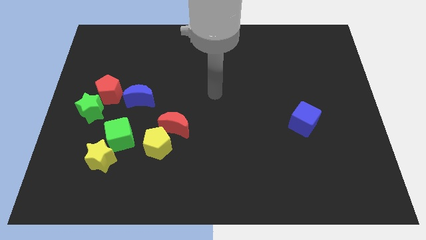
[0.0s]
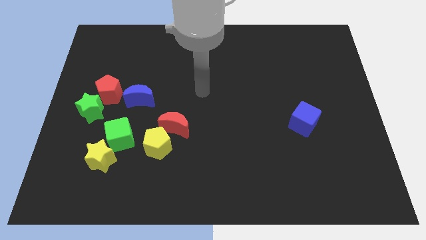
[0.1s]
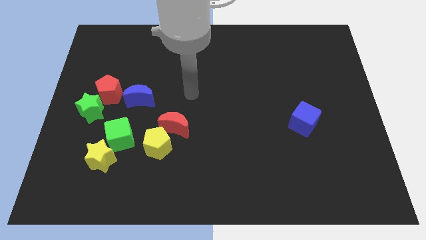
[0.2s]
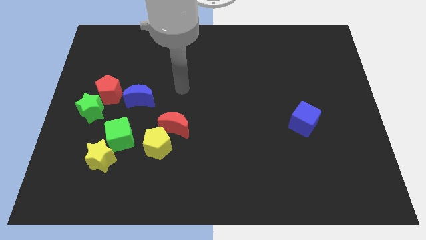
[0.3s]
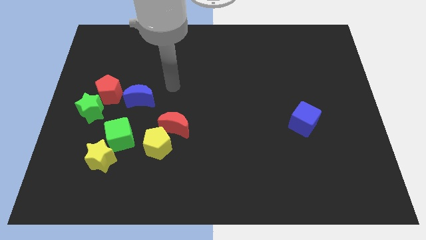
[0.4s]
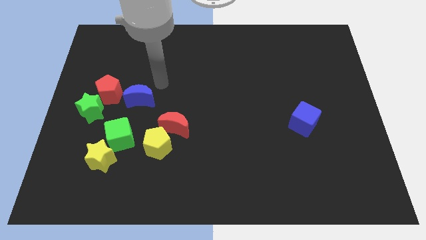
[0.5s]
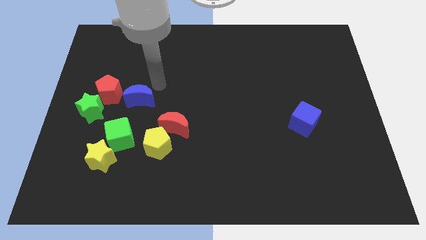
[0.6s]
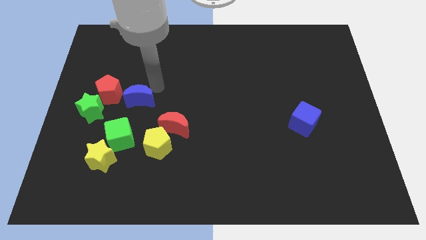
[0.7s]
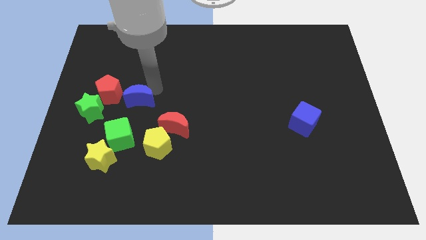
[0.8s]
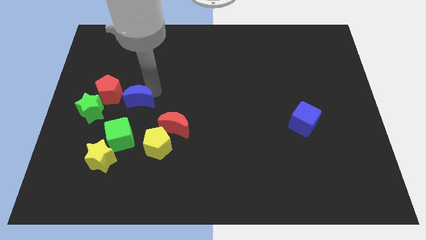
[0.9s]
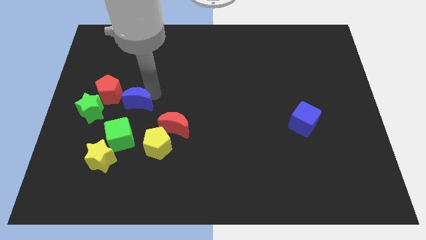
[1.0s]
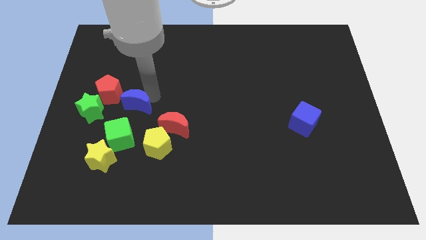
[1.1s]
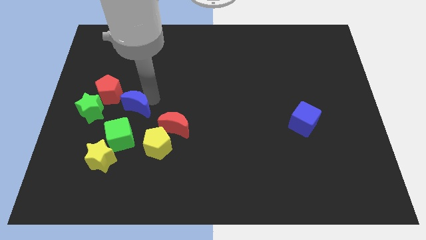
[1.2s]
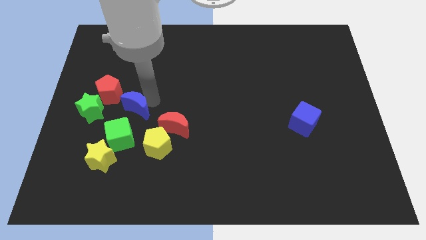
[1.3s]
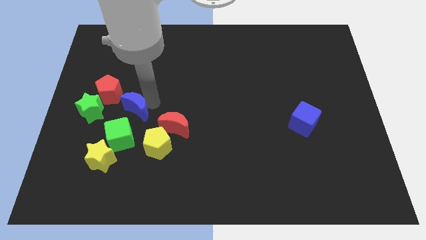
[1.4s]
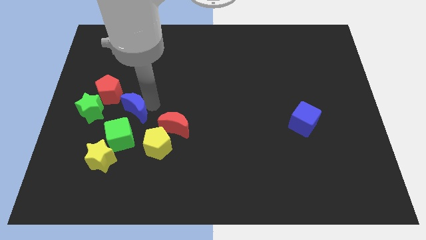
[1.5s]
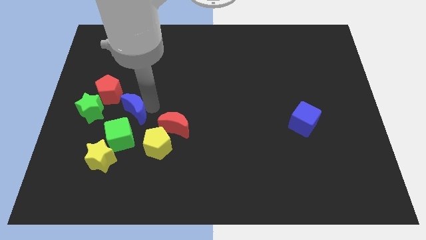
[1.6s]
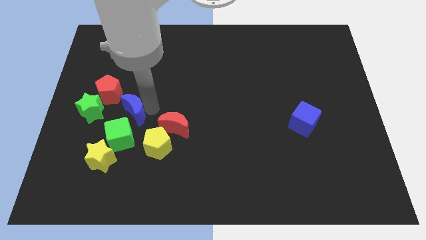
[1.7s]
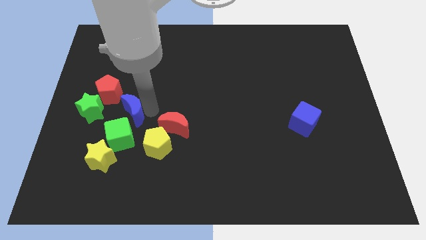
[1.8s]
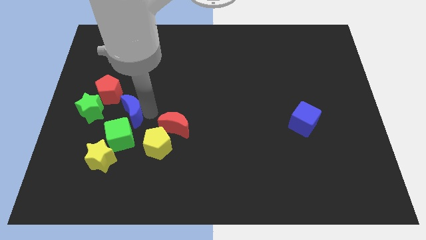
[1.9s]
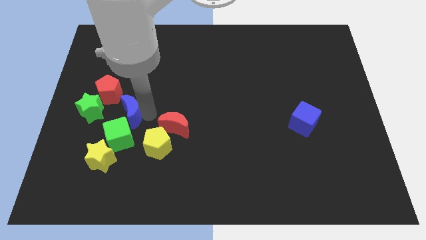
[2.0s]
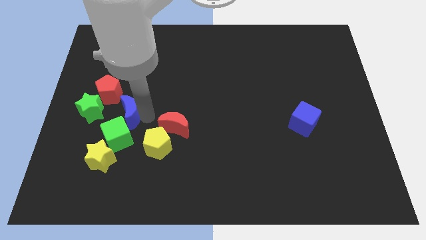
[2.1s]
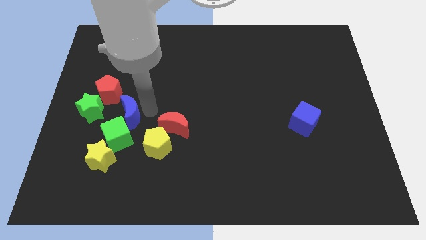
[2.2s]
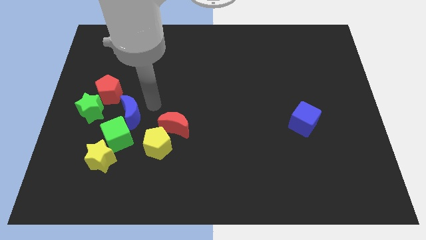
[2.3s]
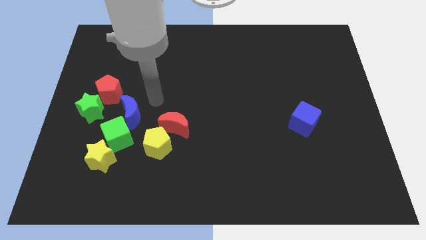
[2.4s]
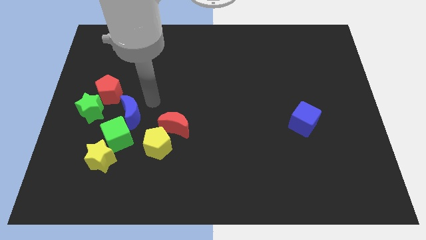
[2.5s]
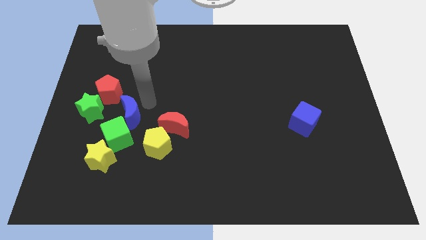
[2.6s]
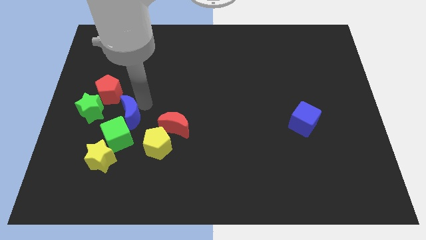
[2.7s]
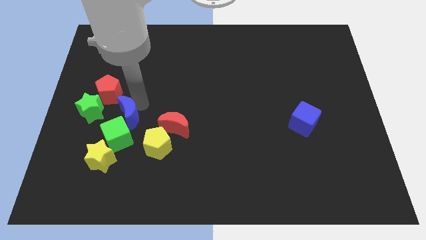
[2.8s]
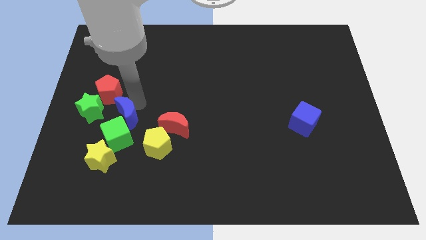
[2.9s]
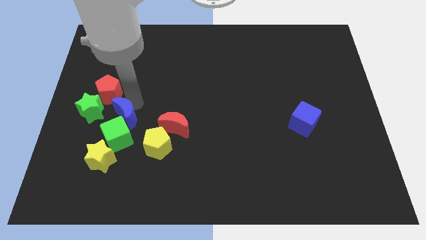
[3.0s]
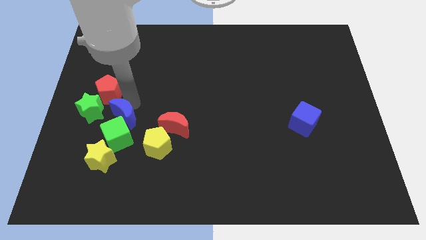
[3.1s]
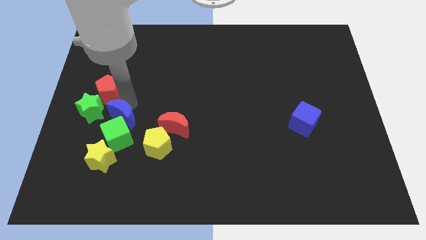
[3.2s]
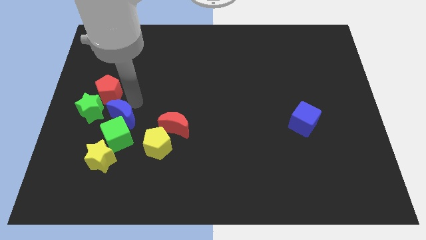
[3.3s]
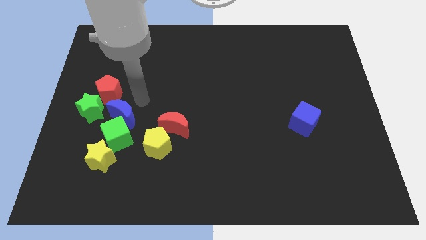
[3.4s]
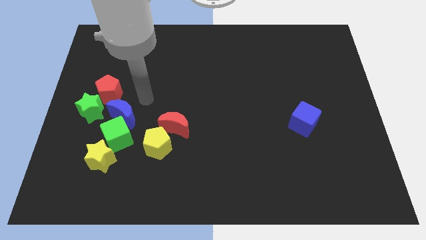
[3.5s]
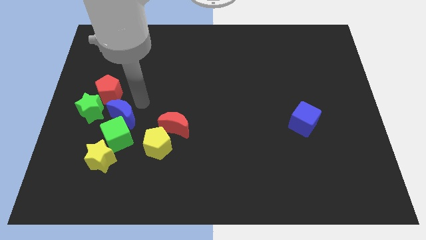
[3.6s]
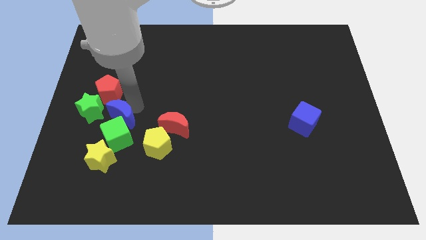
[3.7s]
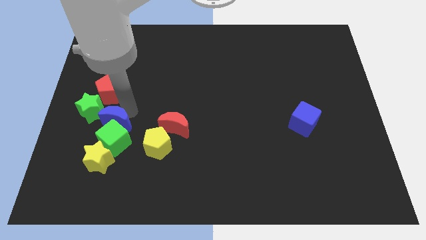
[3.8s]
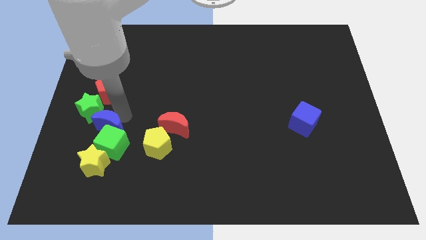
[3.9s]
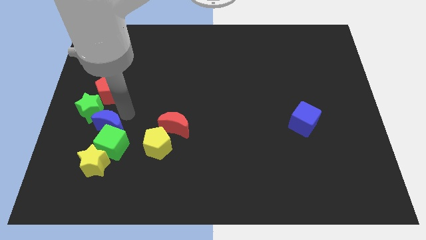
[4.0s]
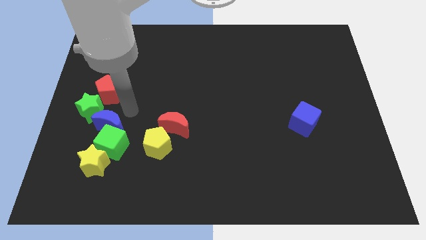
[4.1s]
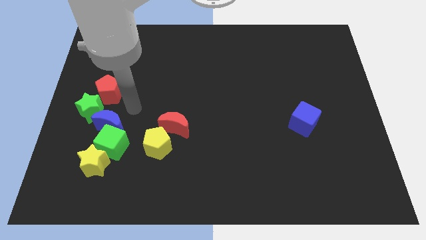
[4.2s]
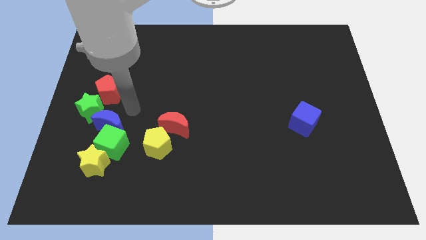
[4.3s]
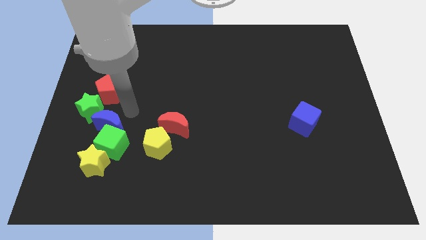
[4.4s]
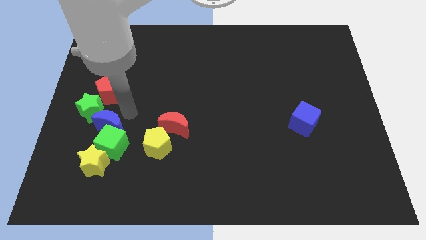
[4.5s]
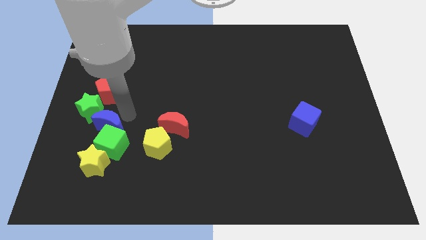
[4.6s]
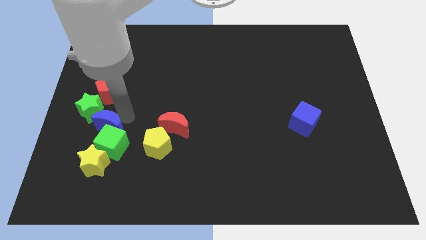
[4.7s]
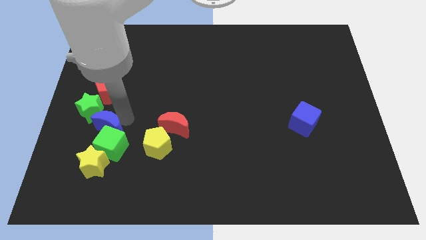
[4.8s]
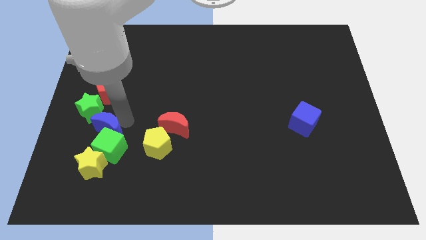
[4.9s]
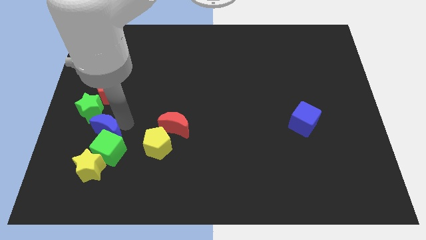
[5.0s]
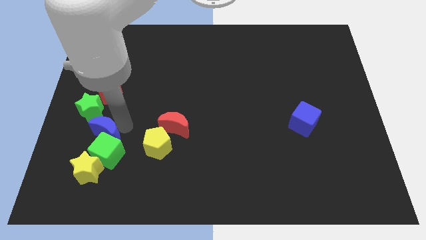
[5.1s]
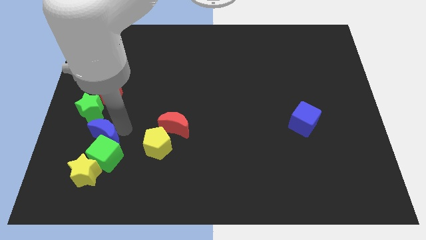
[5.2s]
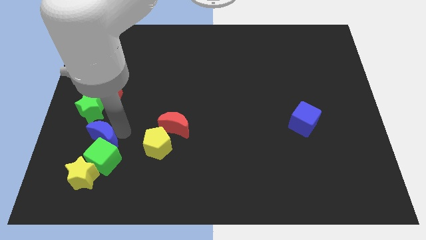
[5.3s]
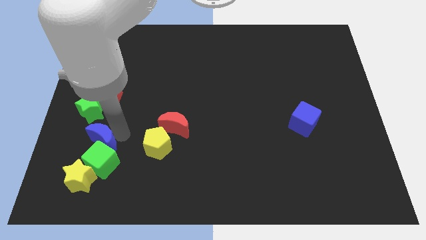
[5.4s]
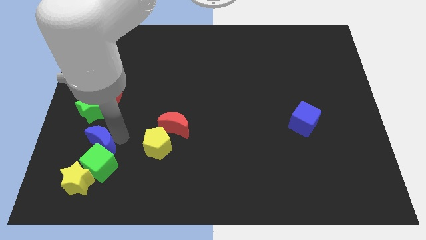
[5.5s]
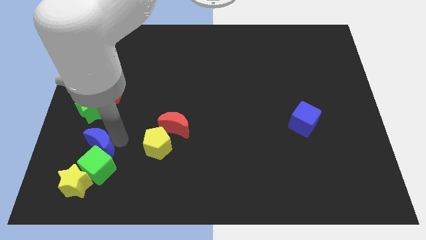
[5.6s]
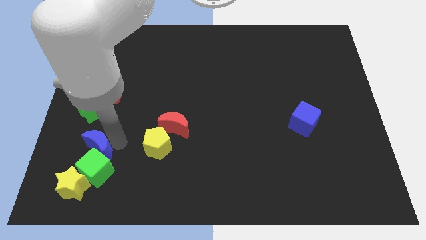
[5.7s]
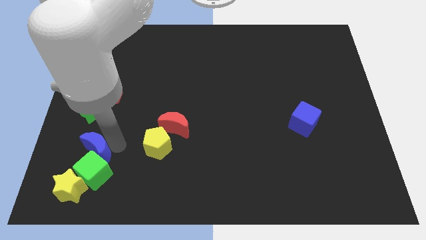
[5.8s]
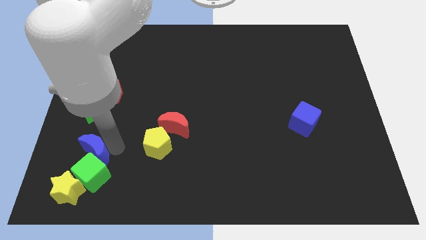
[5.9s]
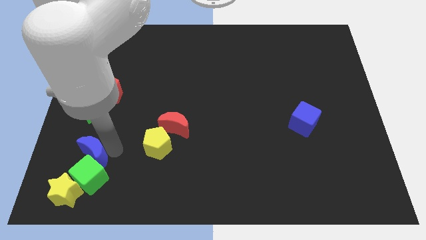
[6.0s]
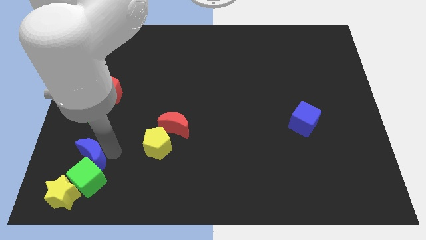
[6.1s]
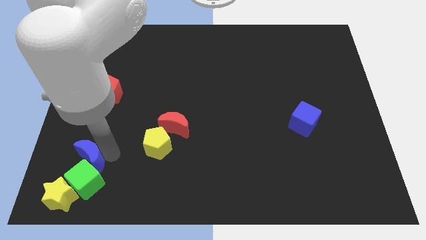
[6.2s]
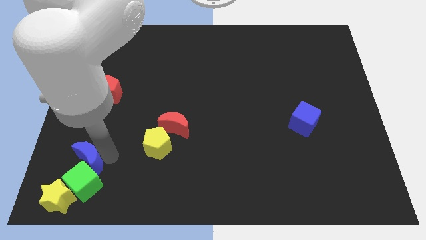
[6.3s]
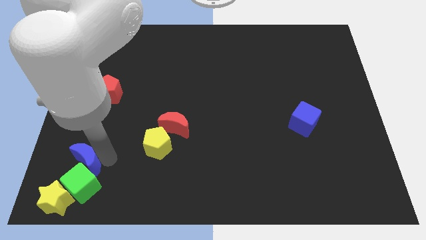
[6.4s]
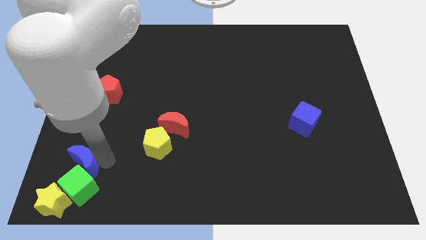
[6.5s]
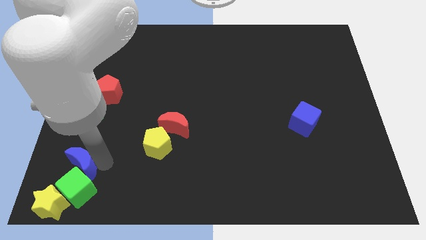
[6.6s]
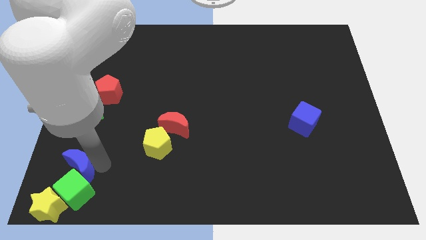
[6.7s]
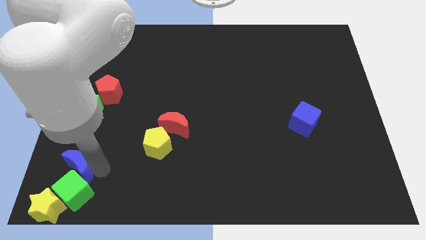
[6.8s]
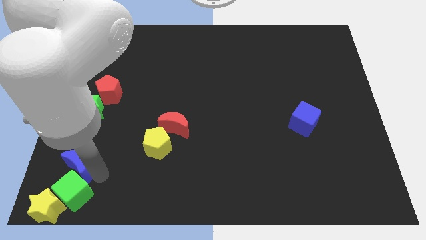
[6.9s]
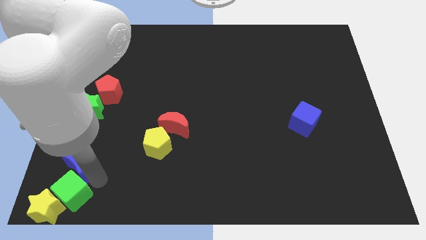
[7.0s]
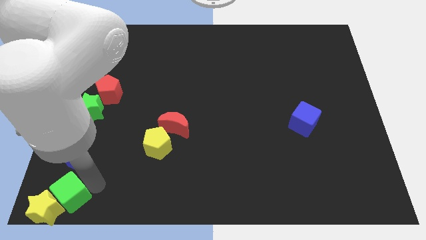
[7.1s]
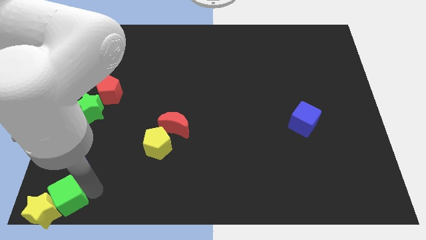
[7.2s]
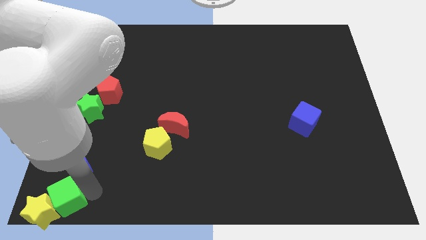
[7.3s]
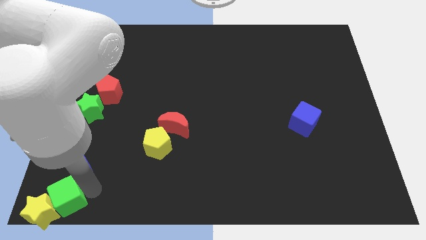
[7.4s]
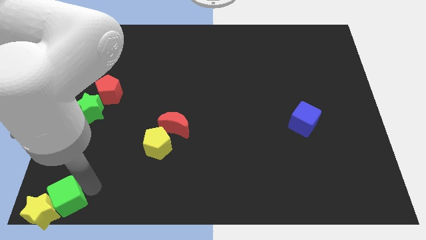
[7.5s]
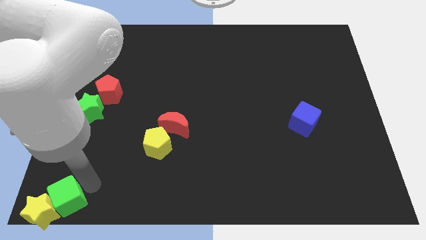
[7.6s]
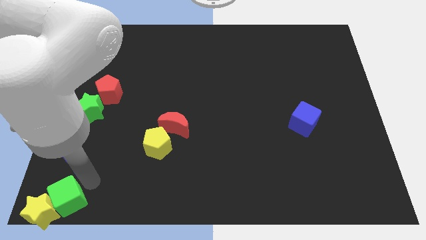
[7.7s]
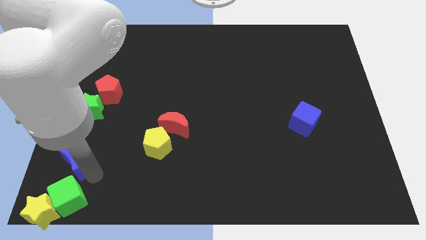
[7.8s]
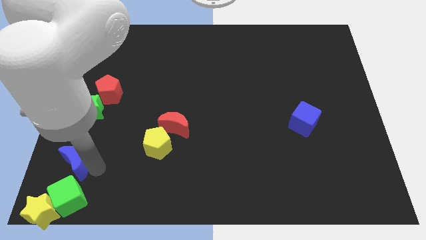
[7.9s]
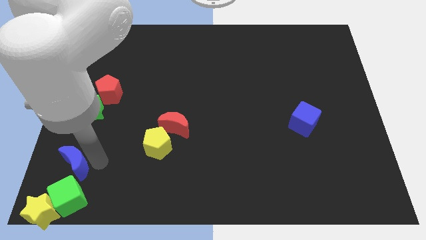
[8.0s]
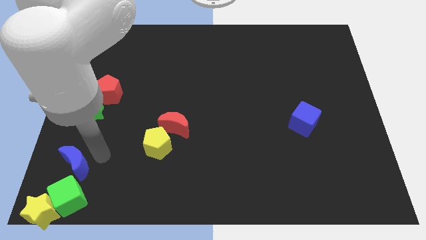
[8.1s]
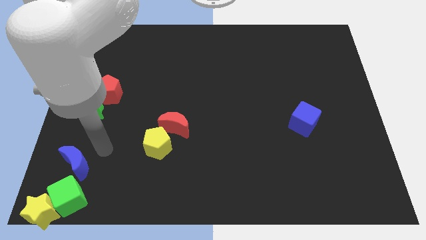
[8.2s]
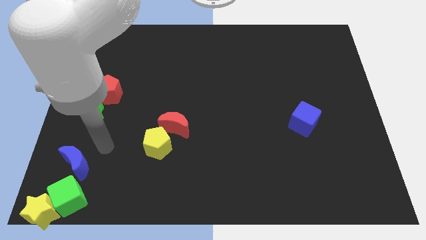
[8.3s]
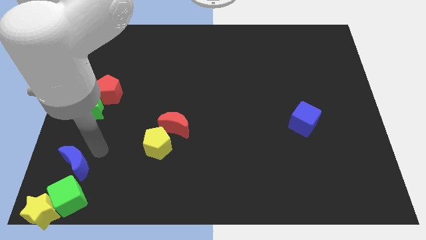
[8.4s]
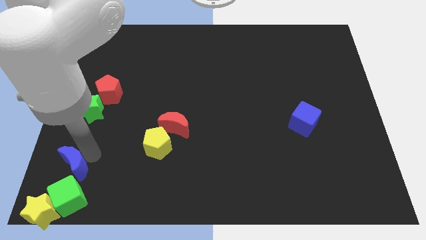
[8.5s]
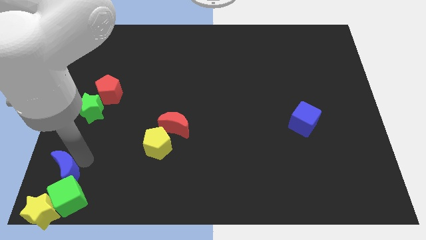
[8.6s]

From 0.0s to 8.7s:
push the blue moon to the bottom left corner
